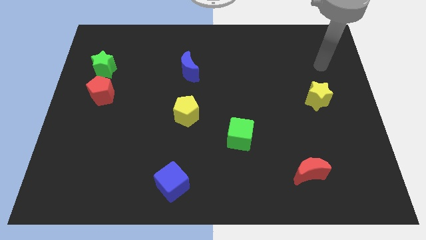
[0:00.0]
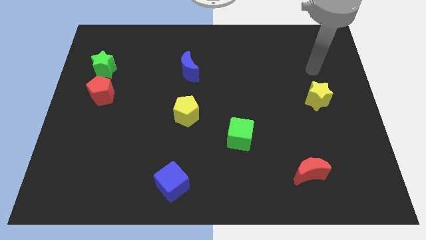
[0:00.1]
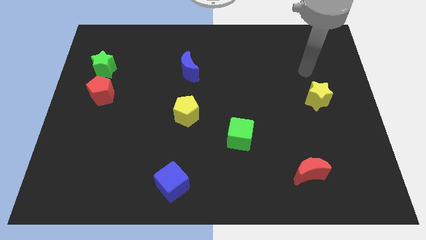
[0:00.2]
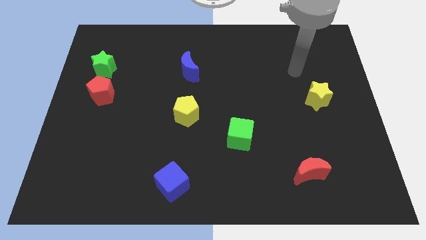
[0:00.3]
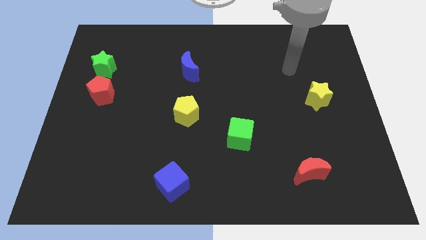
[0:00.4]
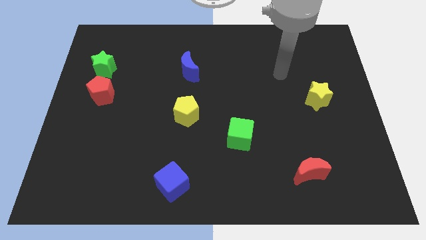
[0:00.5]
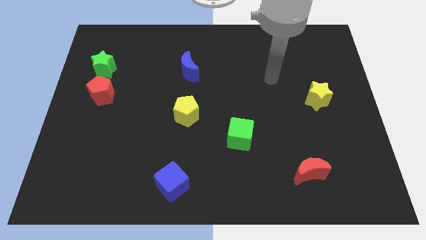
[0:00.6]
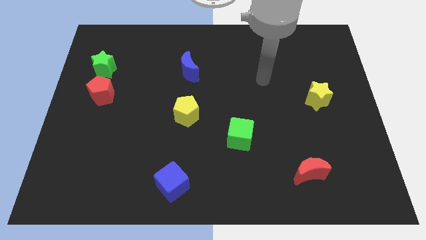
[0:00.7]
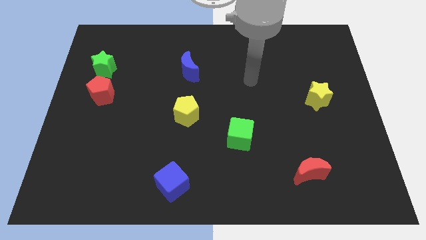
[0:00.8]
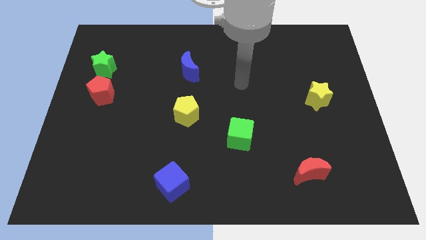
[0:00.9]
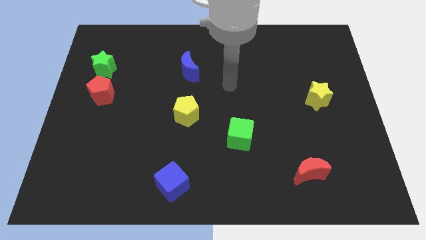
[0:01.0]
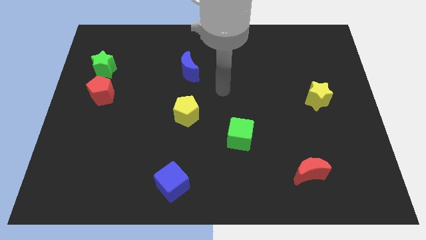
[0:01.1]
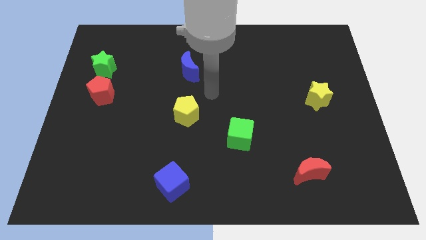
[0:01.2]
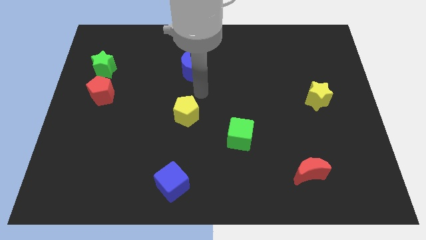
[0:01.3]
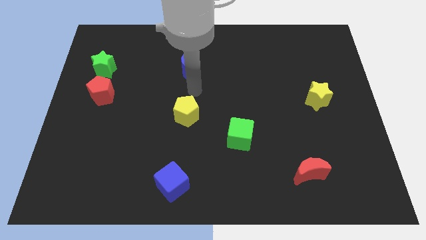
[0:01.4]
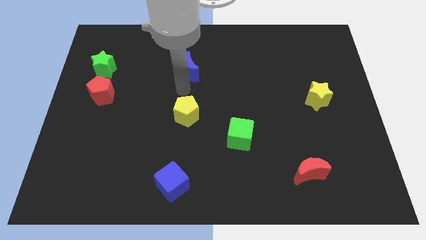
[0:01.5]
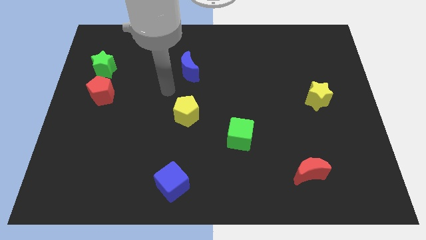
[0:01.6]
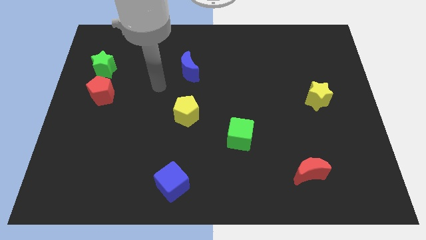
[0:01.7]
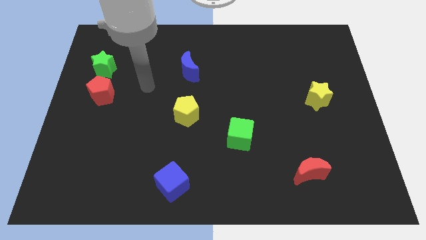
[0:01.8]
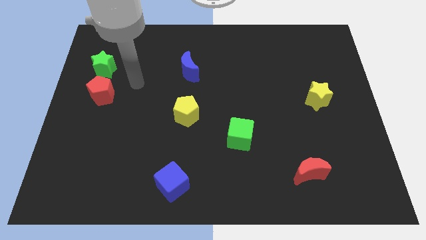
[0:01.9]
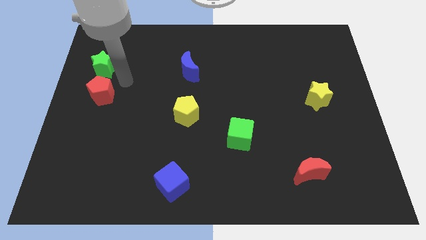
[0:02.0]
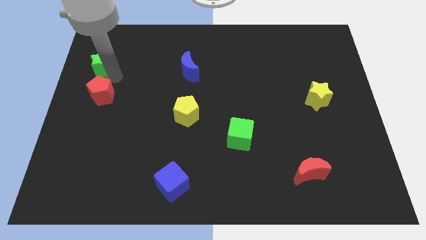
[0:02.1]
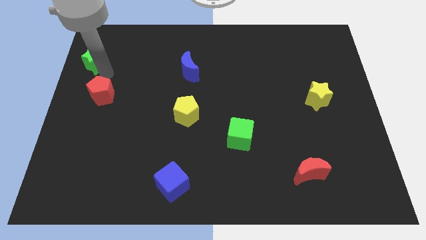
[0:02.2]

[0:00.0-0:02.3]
move the red pentagon away from the green star

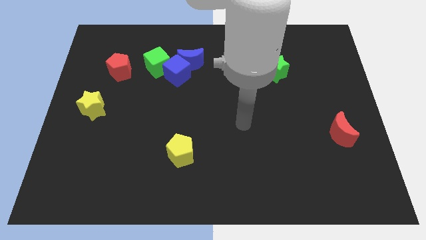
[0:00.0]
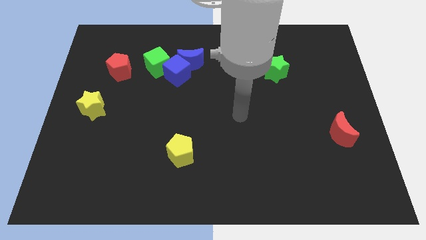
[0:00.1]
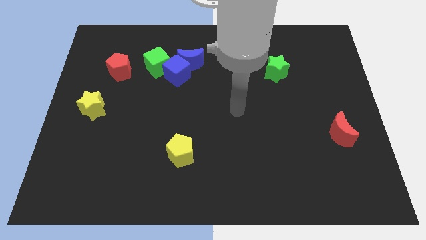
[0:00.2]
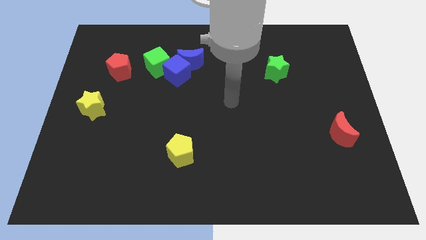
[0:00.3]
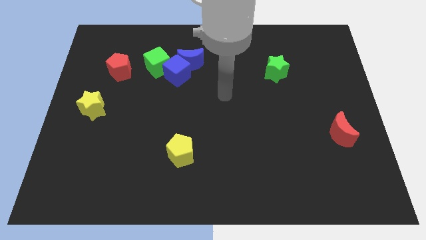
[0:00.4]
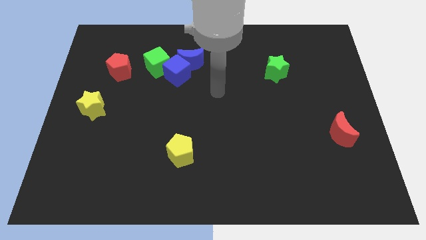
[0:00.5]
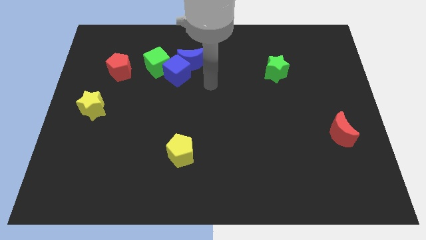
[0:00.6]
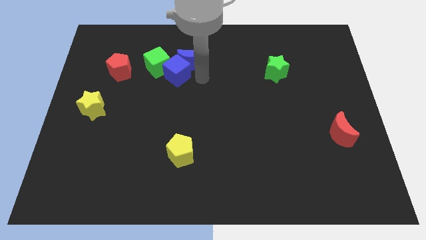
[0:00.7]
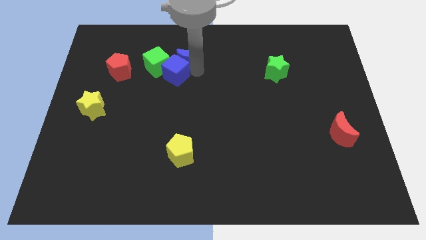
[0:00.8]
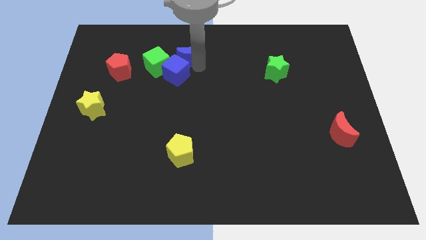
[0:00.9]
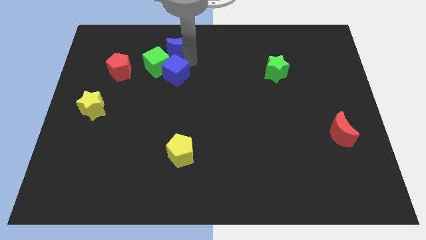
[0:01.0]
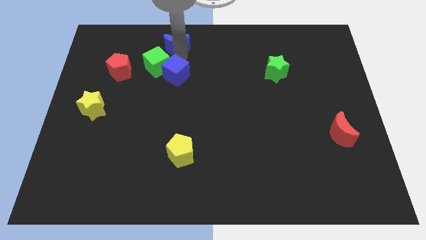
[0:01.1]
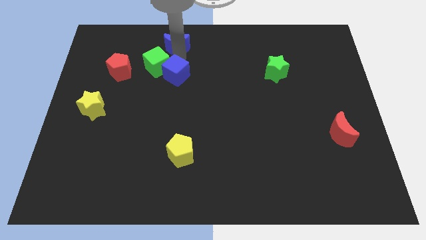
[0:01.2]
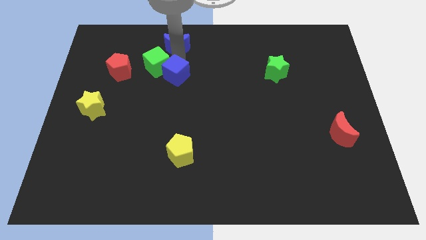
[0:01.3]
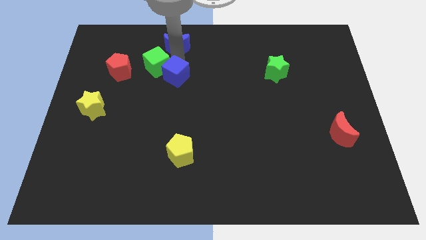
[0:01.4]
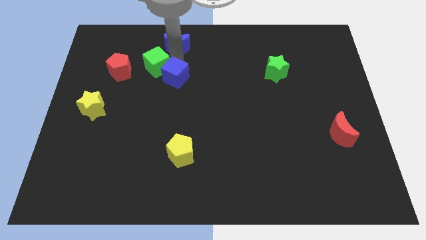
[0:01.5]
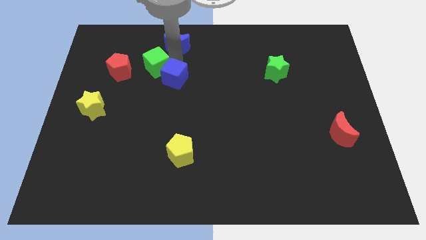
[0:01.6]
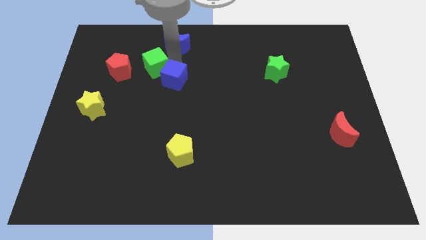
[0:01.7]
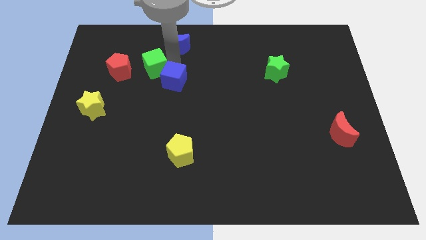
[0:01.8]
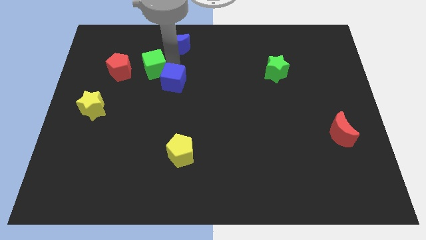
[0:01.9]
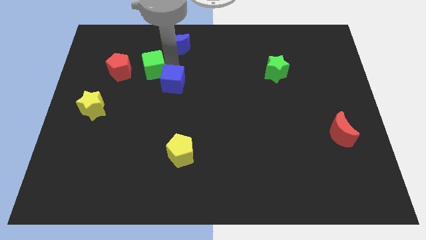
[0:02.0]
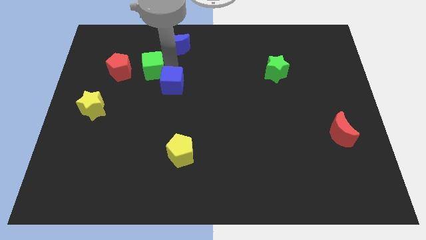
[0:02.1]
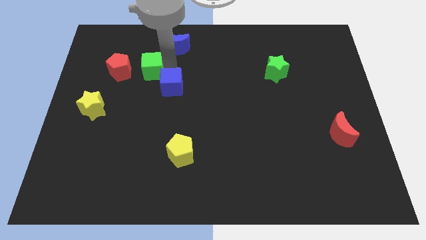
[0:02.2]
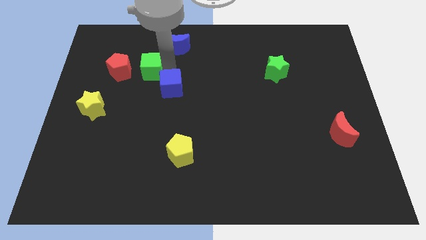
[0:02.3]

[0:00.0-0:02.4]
pull the blue cube apart from the blue moon and green cube

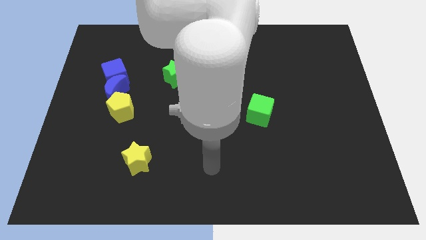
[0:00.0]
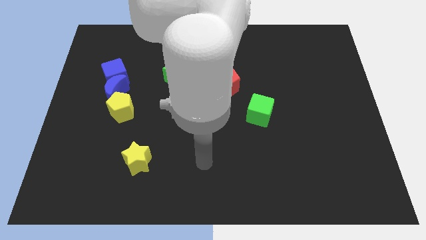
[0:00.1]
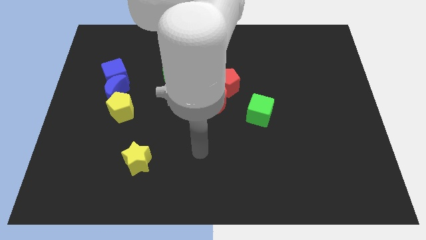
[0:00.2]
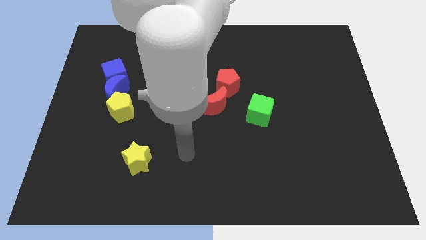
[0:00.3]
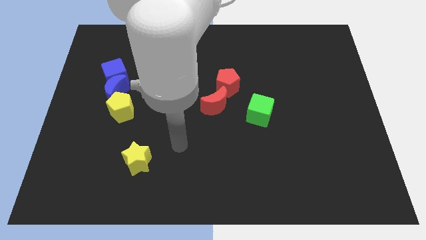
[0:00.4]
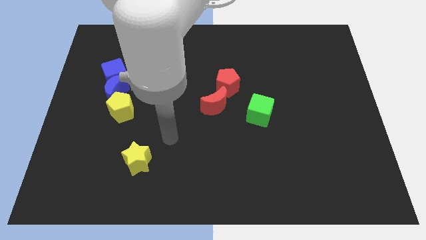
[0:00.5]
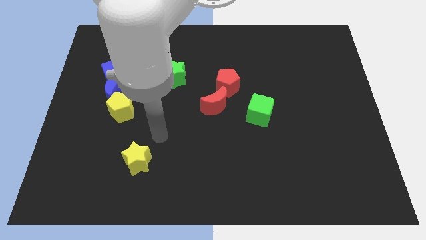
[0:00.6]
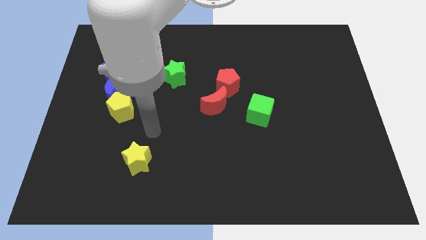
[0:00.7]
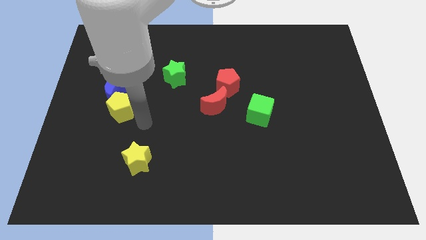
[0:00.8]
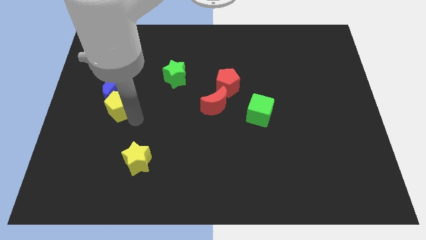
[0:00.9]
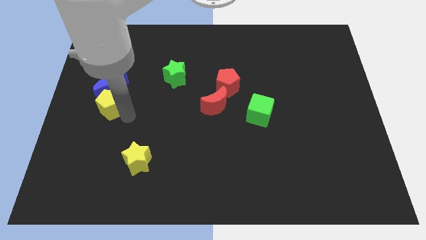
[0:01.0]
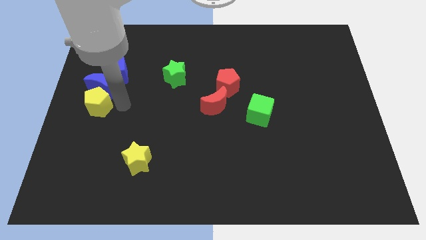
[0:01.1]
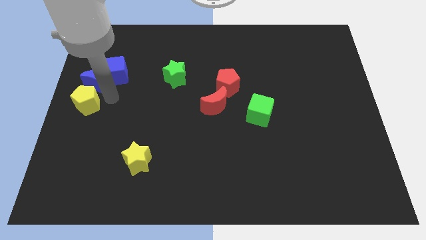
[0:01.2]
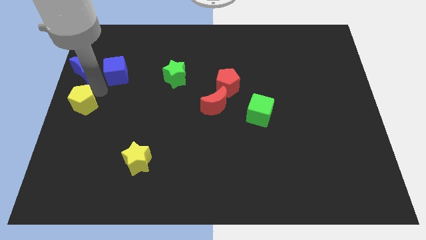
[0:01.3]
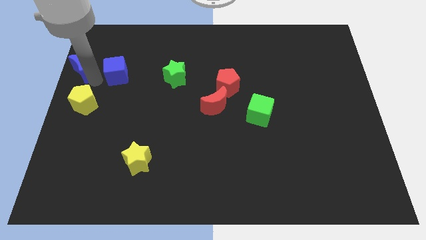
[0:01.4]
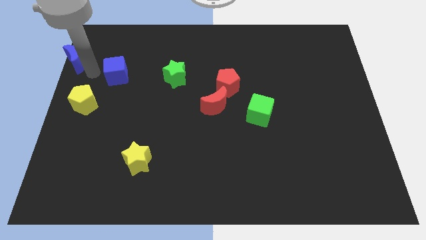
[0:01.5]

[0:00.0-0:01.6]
separate the blue cube from the blue moon

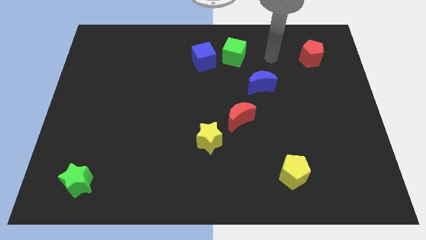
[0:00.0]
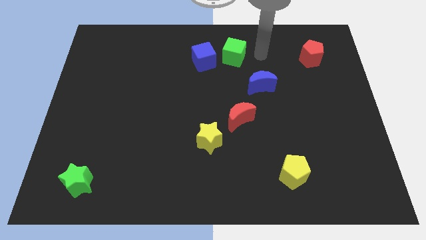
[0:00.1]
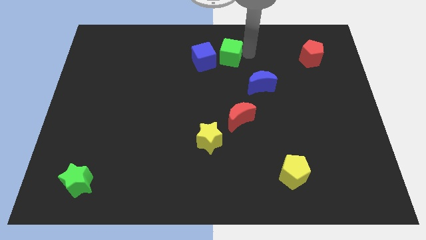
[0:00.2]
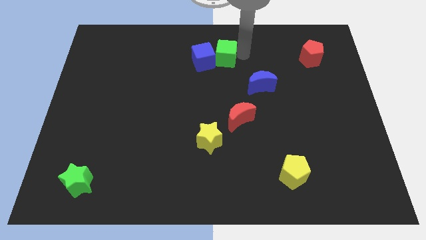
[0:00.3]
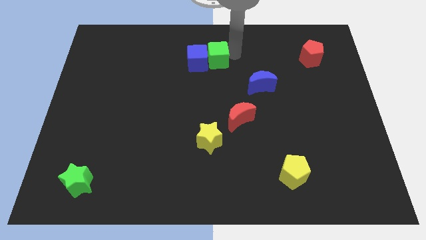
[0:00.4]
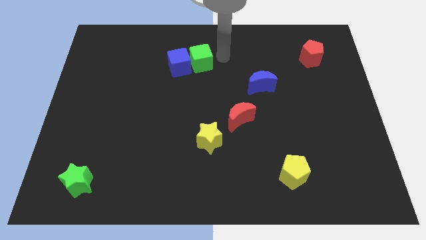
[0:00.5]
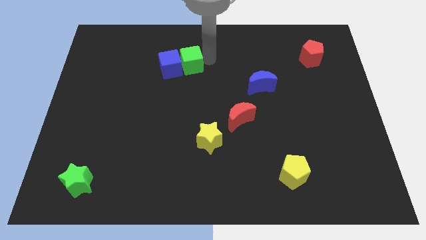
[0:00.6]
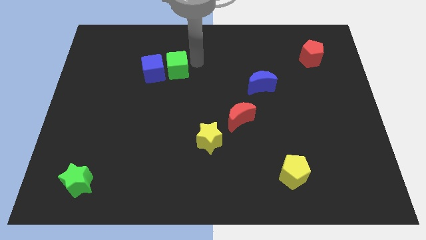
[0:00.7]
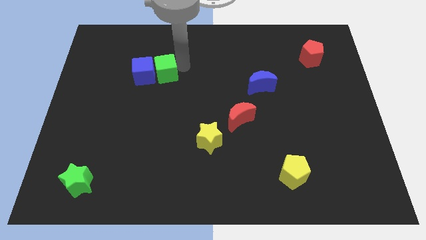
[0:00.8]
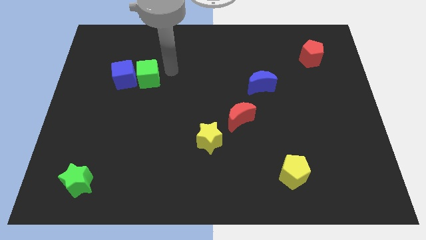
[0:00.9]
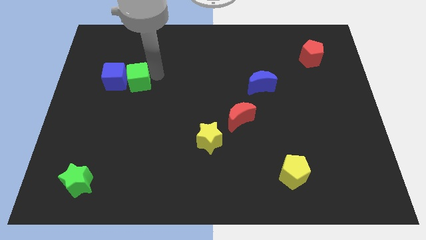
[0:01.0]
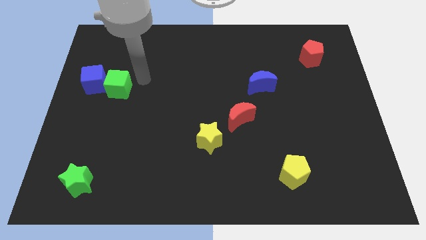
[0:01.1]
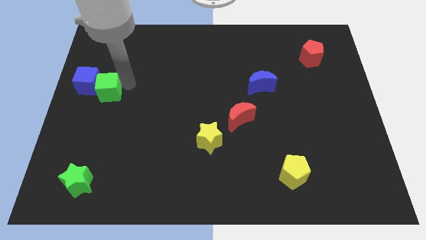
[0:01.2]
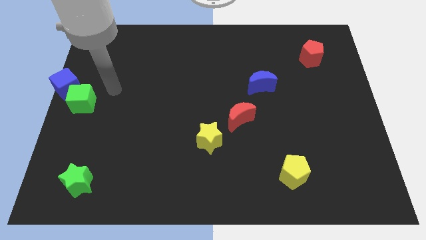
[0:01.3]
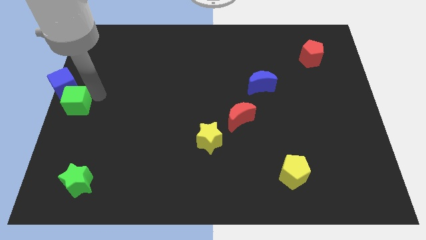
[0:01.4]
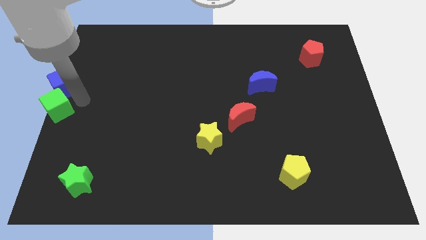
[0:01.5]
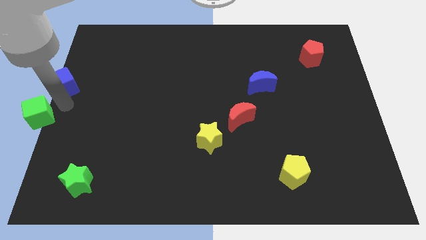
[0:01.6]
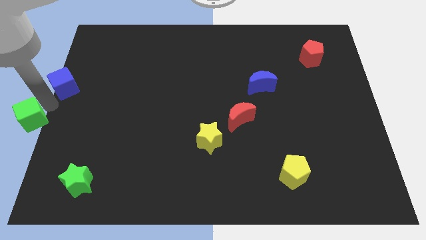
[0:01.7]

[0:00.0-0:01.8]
move the blue cube away from the green cube

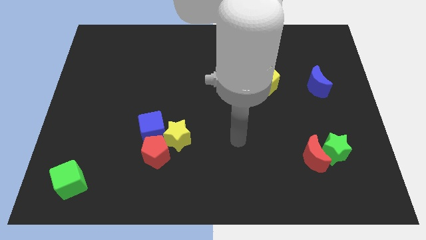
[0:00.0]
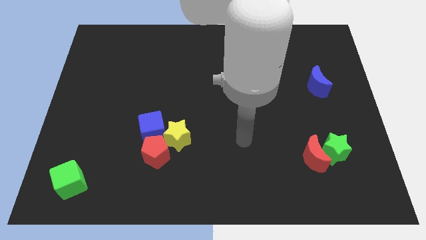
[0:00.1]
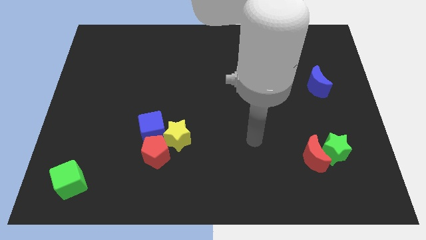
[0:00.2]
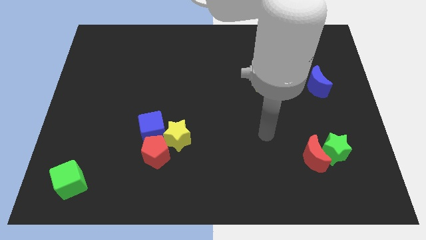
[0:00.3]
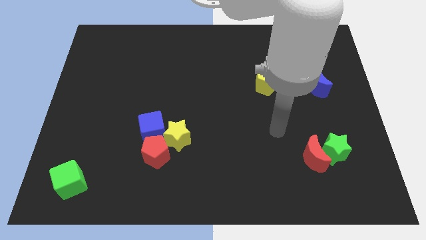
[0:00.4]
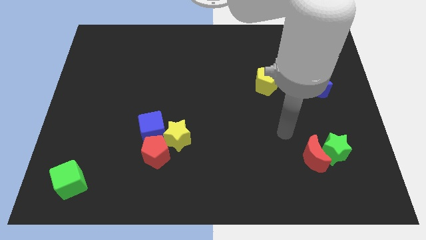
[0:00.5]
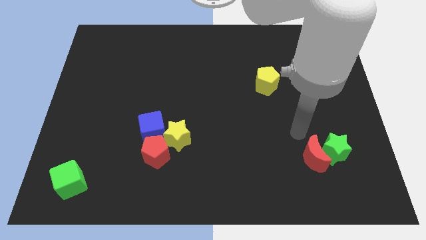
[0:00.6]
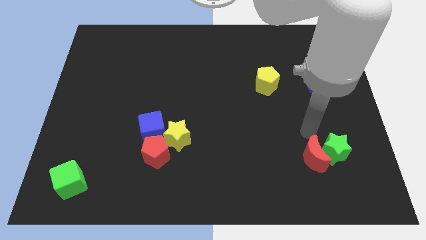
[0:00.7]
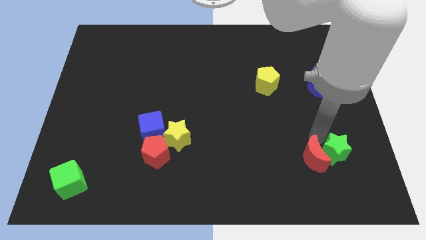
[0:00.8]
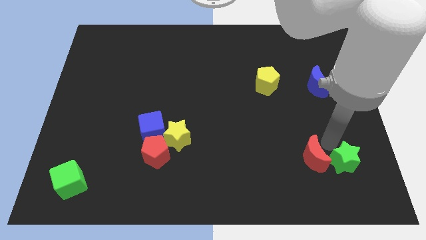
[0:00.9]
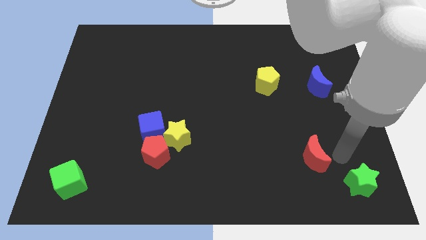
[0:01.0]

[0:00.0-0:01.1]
pull the red moon apart from the green star
